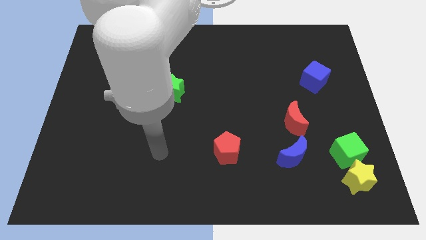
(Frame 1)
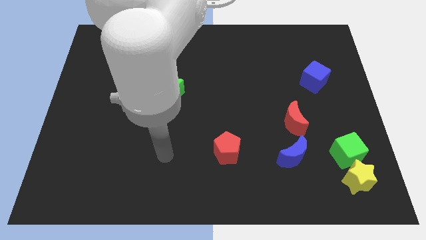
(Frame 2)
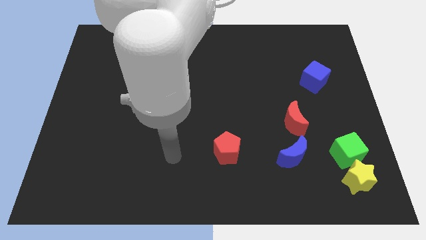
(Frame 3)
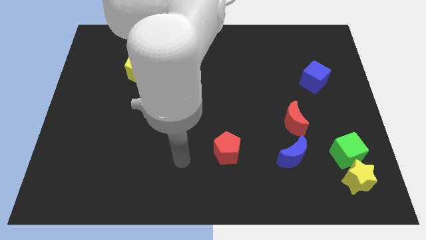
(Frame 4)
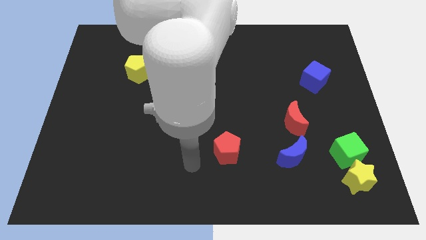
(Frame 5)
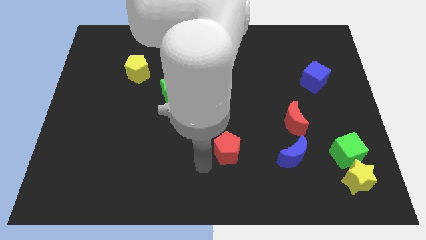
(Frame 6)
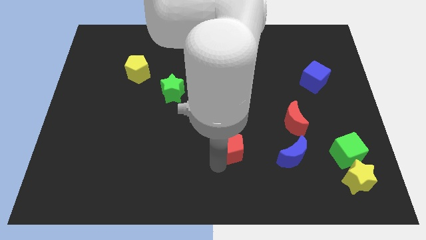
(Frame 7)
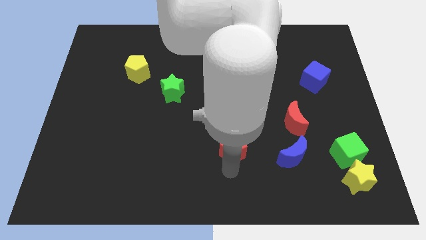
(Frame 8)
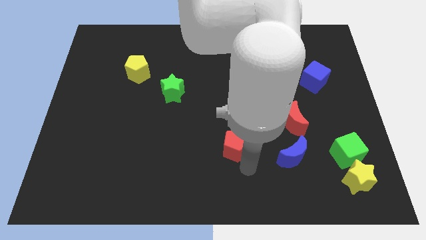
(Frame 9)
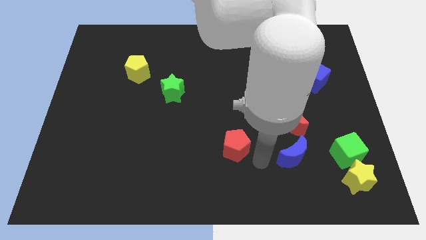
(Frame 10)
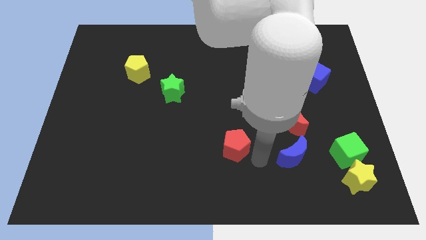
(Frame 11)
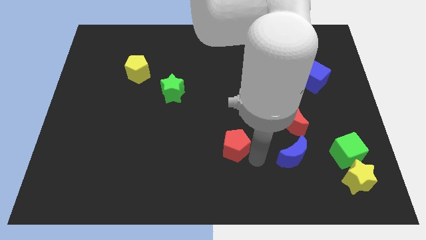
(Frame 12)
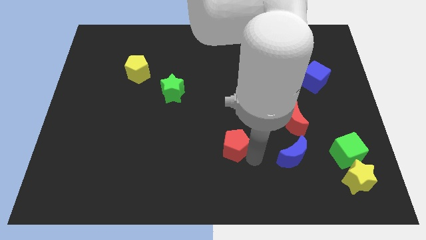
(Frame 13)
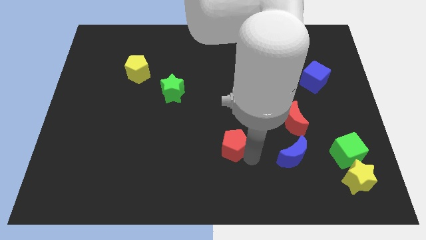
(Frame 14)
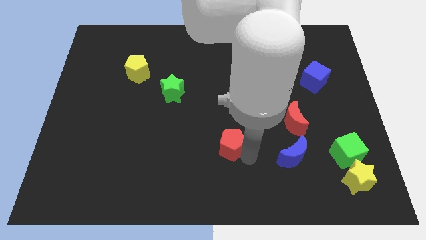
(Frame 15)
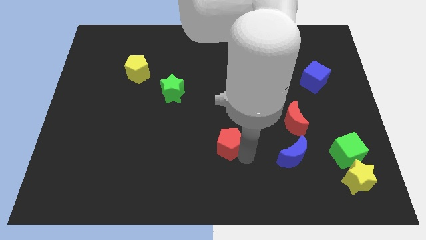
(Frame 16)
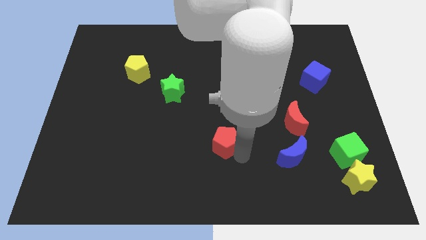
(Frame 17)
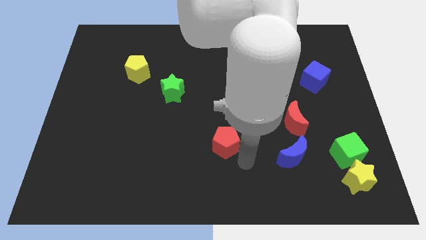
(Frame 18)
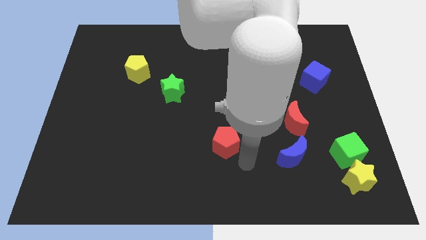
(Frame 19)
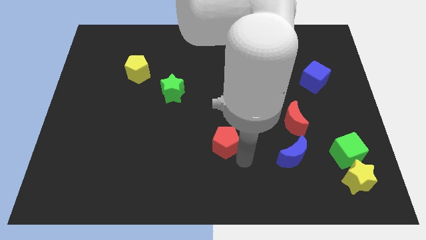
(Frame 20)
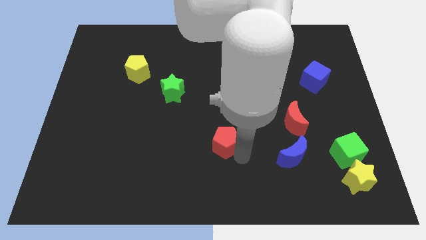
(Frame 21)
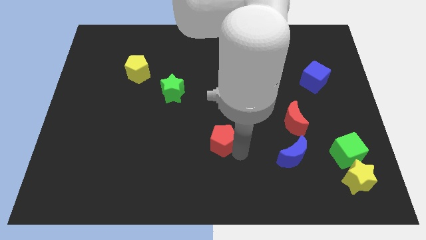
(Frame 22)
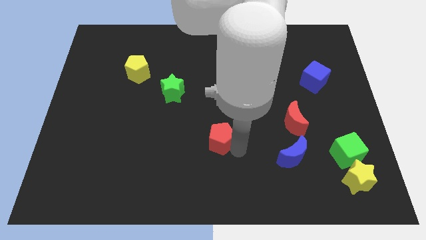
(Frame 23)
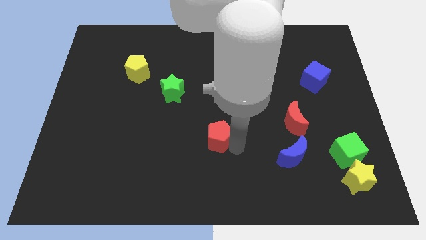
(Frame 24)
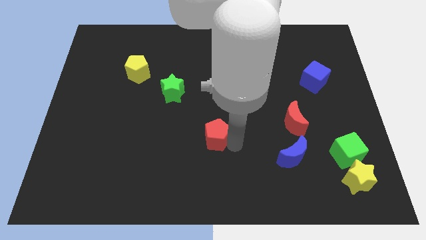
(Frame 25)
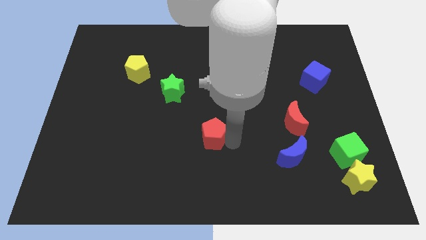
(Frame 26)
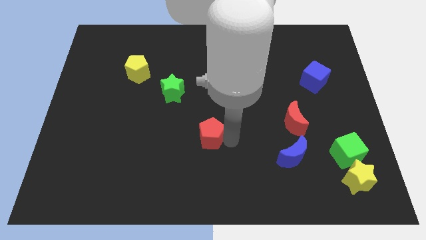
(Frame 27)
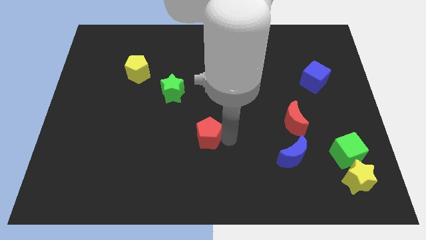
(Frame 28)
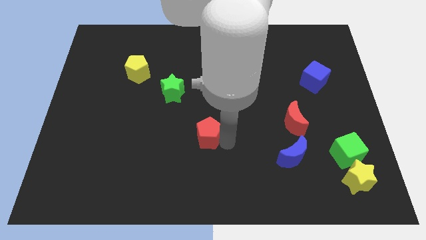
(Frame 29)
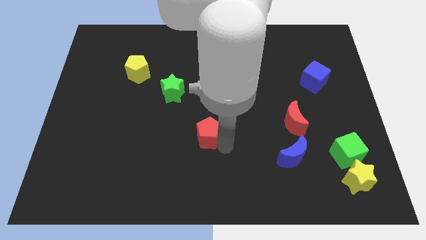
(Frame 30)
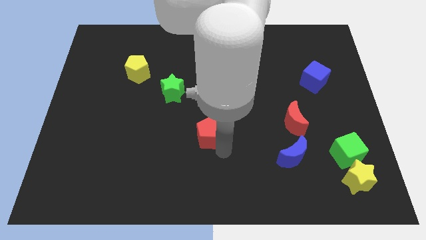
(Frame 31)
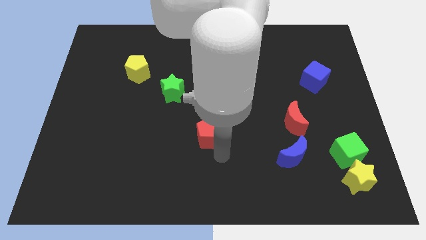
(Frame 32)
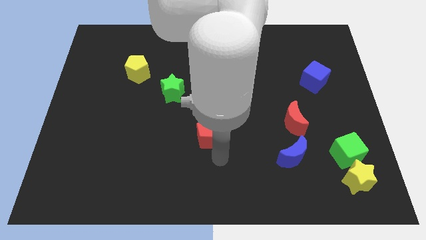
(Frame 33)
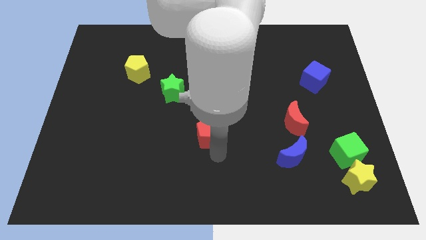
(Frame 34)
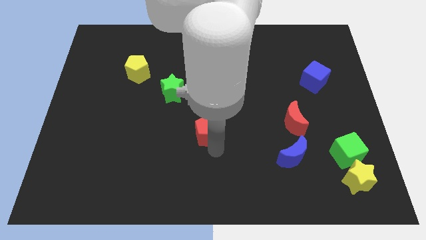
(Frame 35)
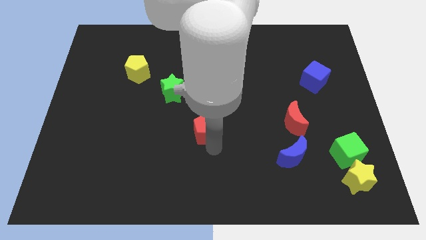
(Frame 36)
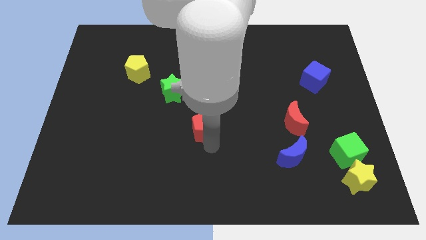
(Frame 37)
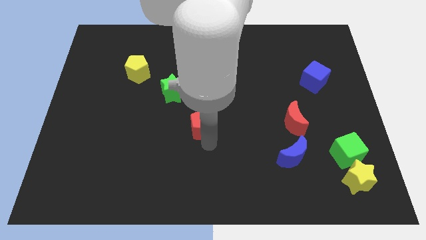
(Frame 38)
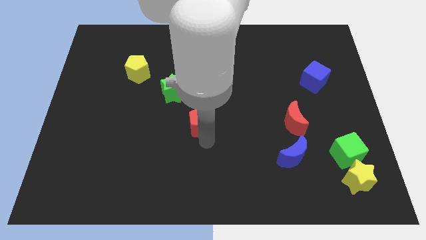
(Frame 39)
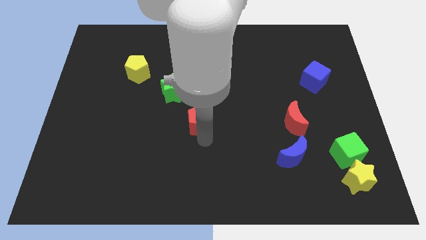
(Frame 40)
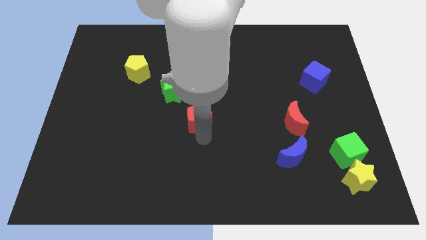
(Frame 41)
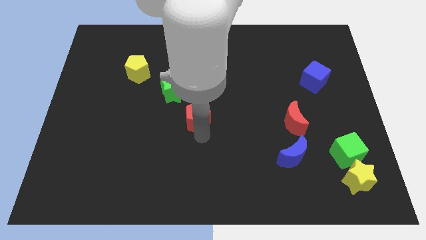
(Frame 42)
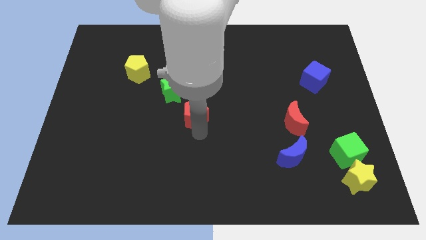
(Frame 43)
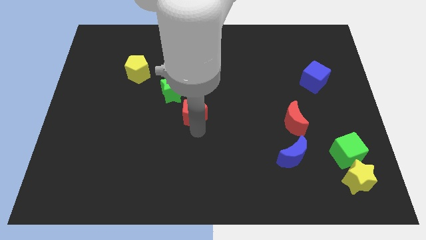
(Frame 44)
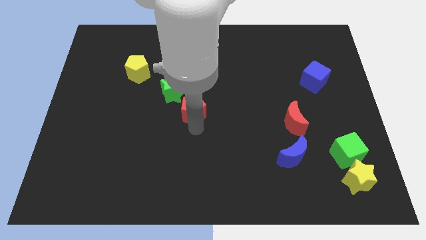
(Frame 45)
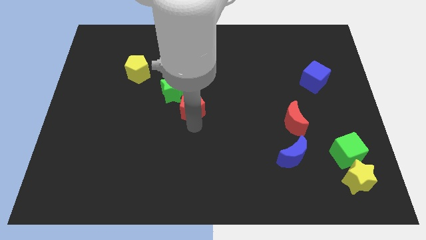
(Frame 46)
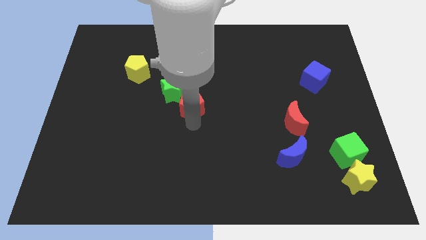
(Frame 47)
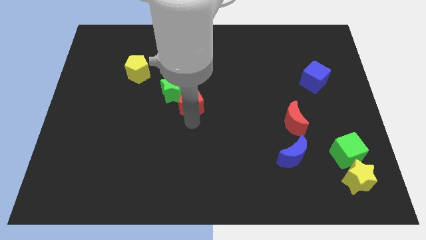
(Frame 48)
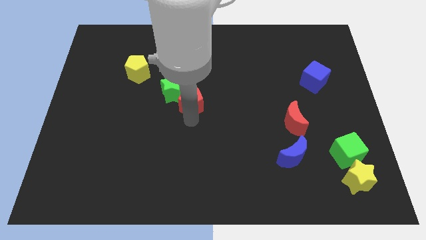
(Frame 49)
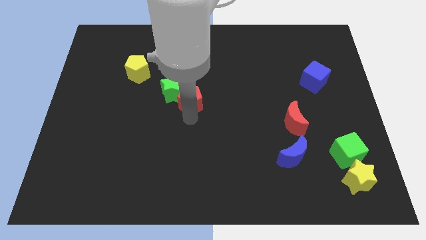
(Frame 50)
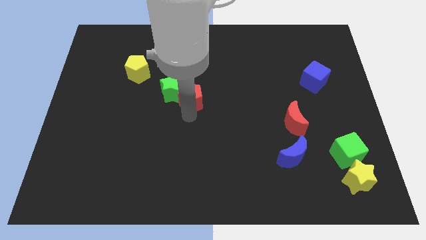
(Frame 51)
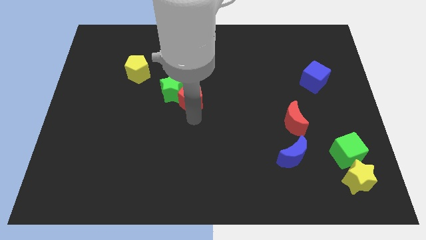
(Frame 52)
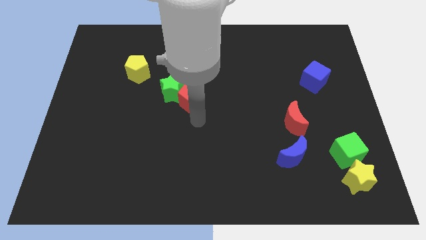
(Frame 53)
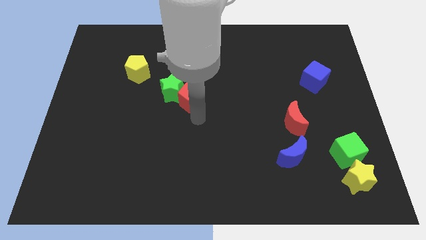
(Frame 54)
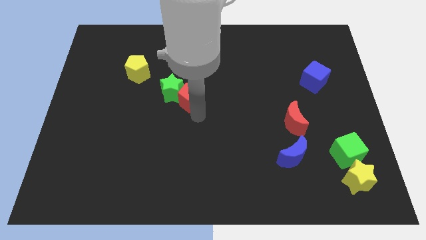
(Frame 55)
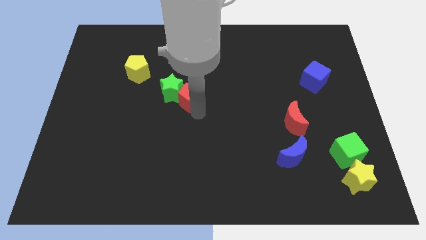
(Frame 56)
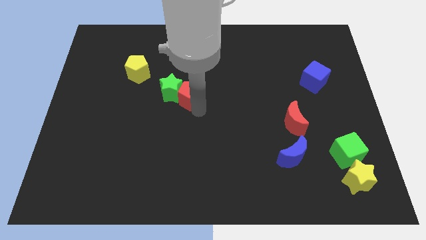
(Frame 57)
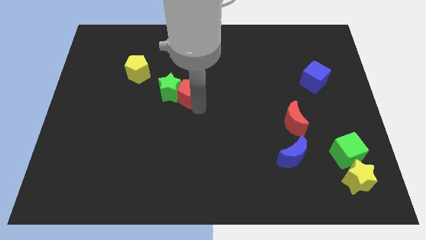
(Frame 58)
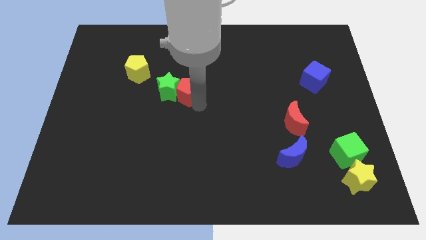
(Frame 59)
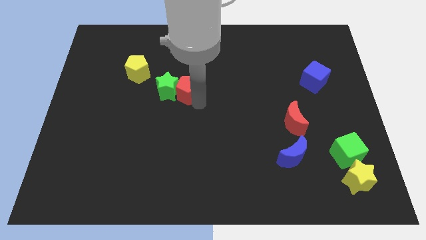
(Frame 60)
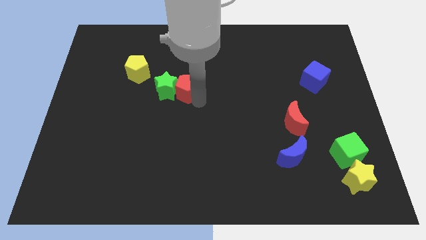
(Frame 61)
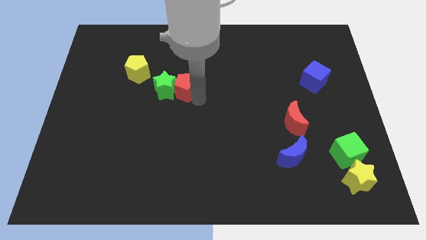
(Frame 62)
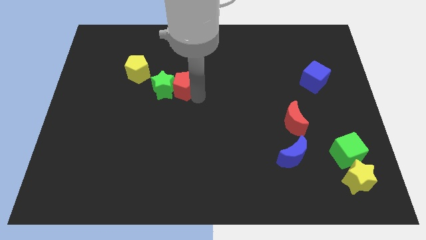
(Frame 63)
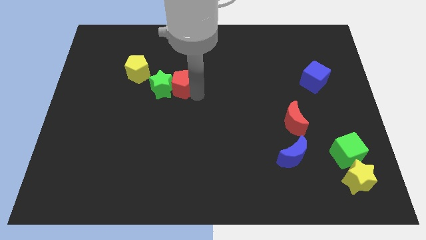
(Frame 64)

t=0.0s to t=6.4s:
put the red pentagon to the right side of the yellow pentagon

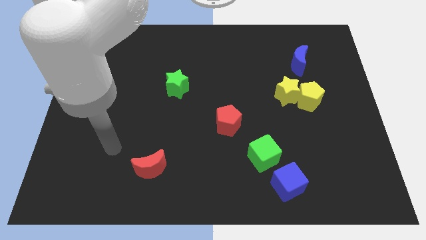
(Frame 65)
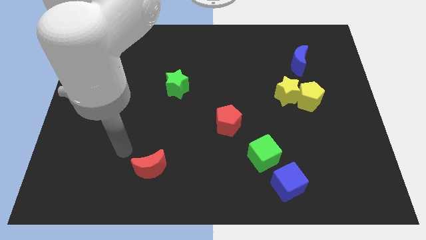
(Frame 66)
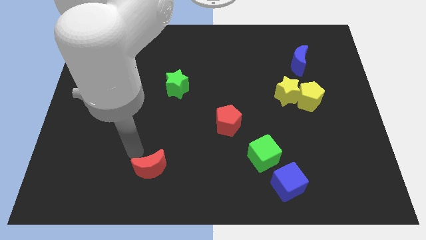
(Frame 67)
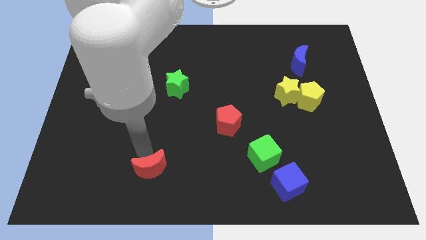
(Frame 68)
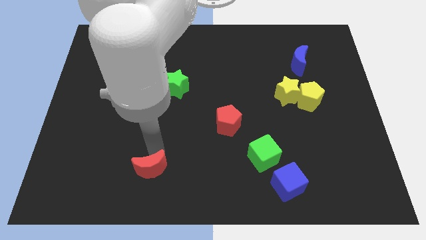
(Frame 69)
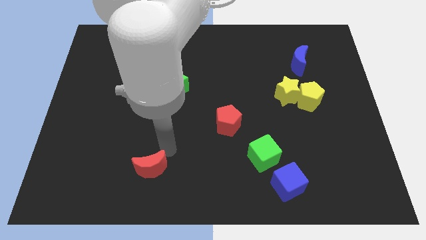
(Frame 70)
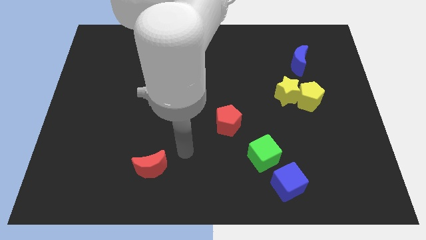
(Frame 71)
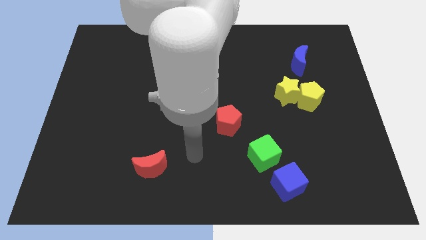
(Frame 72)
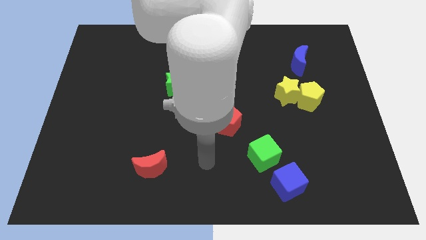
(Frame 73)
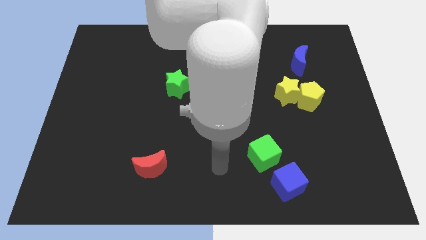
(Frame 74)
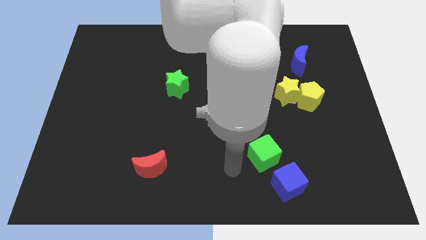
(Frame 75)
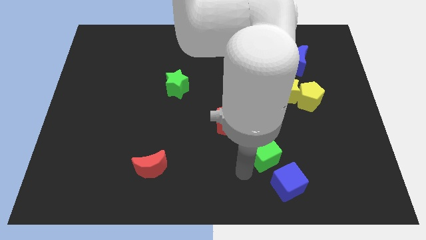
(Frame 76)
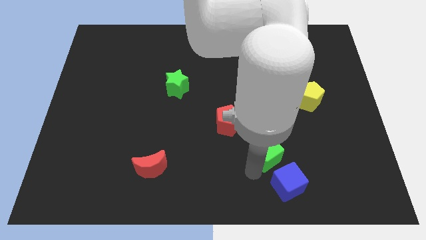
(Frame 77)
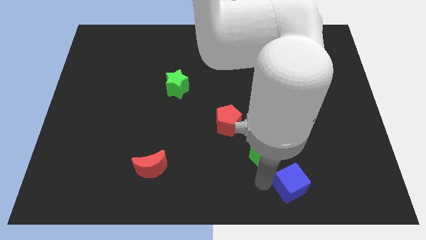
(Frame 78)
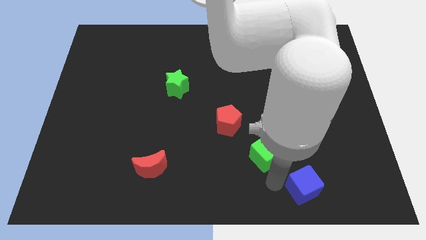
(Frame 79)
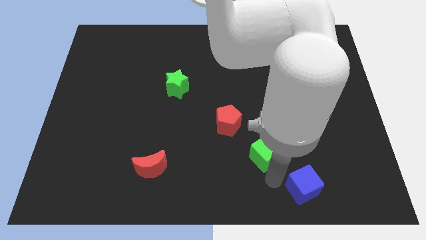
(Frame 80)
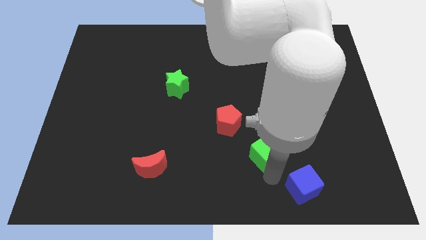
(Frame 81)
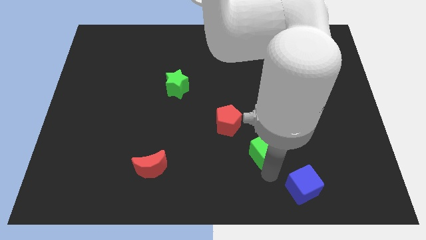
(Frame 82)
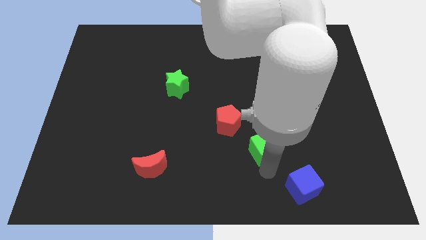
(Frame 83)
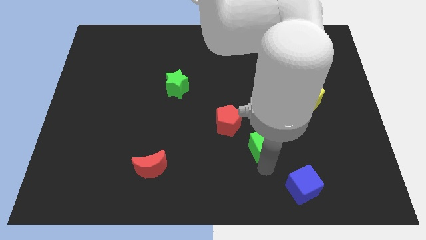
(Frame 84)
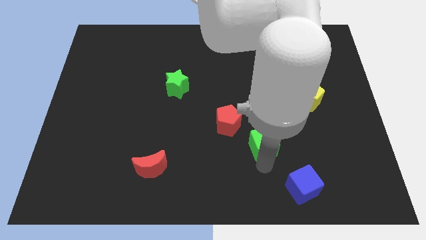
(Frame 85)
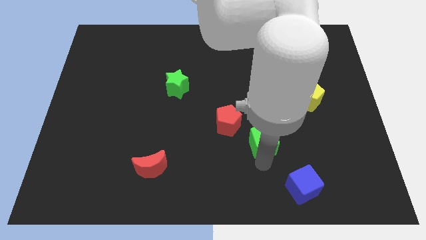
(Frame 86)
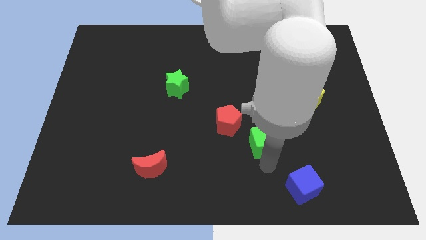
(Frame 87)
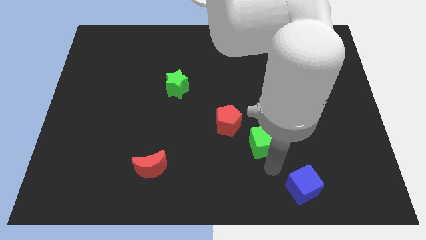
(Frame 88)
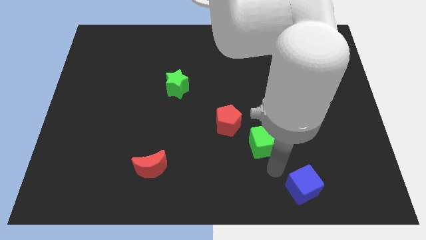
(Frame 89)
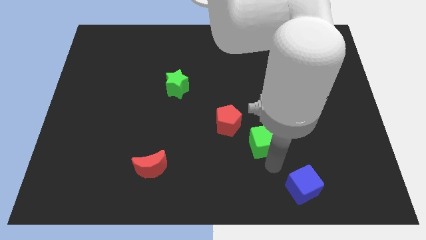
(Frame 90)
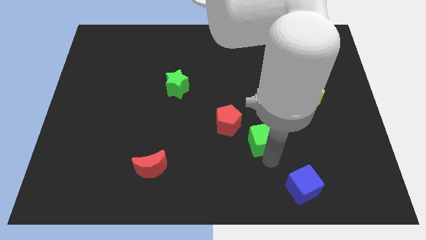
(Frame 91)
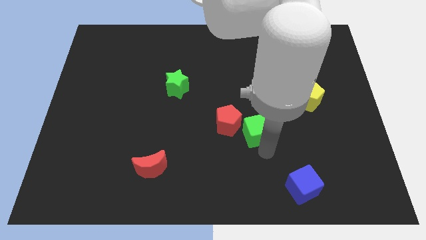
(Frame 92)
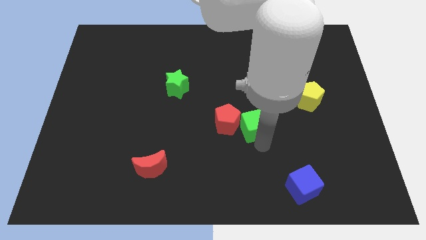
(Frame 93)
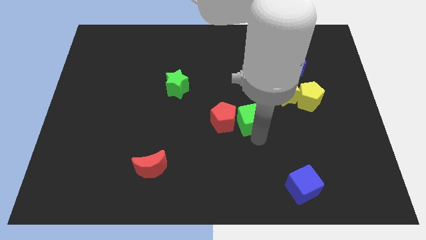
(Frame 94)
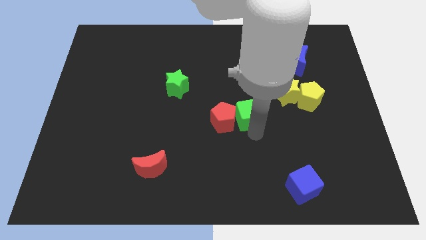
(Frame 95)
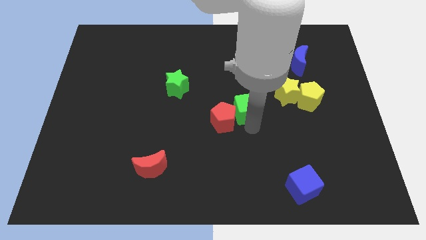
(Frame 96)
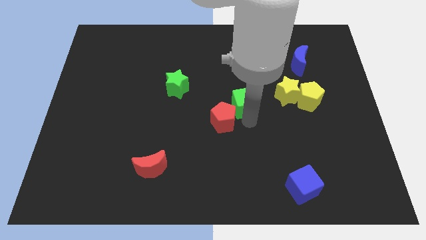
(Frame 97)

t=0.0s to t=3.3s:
move the green cube to the left of the yellow star
